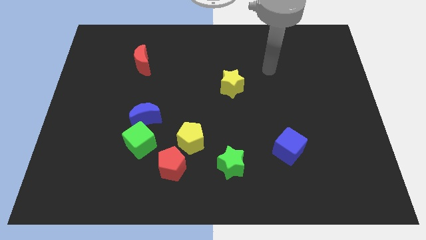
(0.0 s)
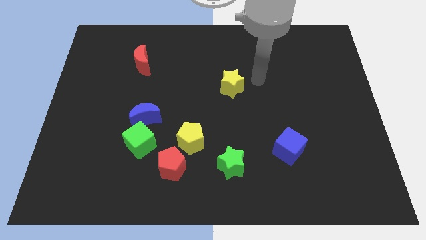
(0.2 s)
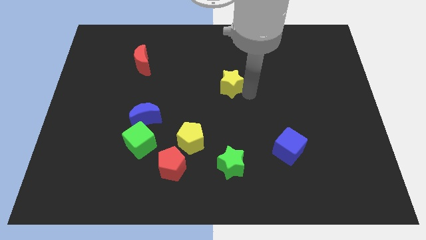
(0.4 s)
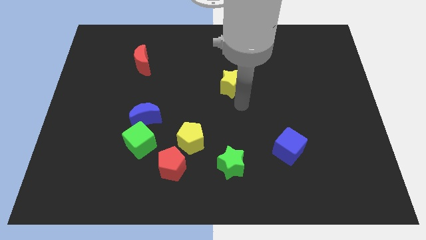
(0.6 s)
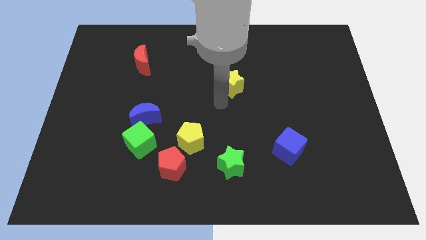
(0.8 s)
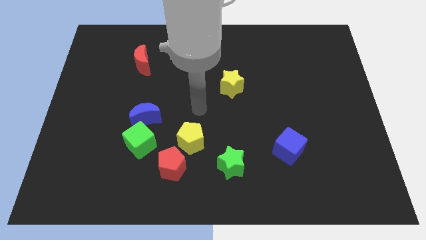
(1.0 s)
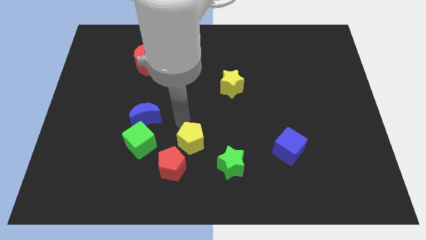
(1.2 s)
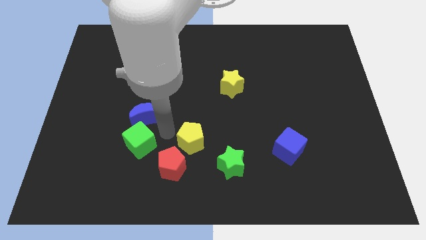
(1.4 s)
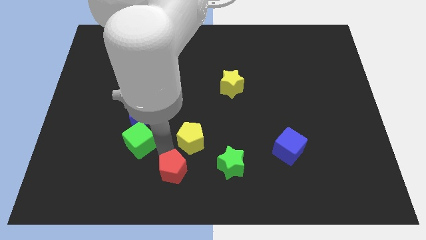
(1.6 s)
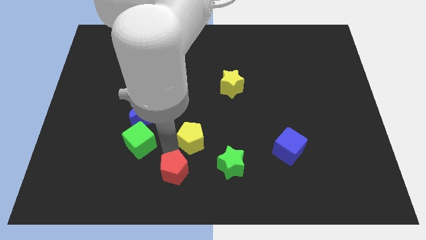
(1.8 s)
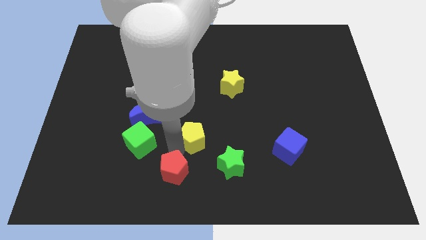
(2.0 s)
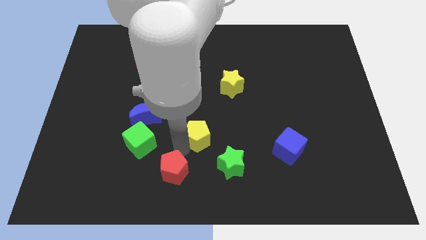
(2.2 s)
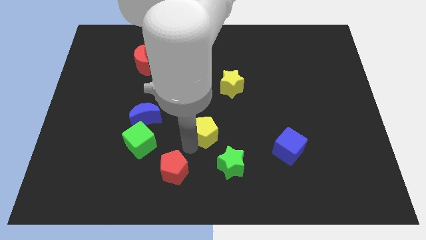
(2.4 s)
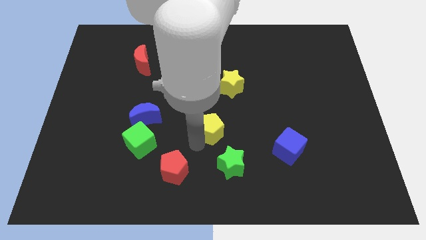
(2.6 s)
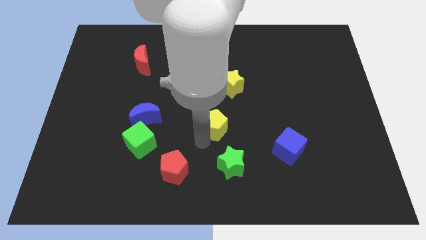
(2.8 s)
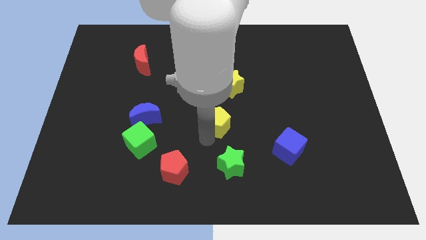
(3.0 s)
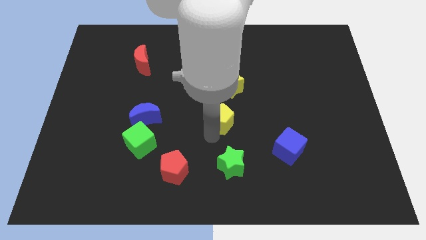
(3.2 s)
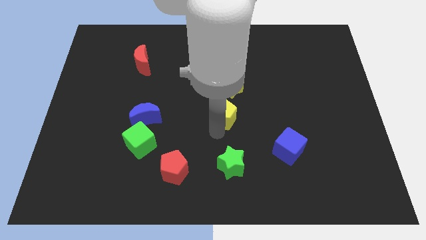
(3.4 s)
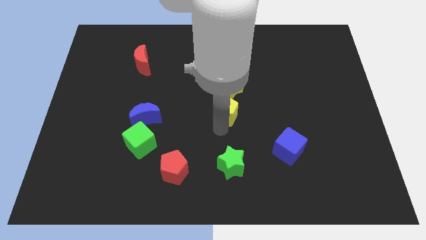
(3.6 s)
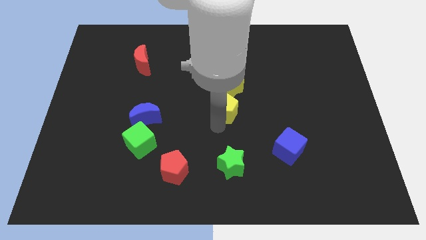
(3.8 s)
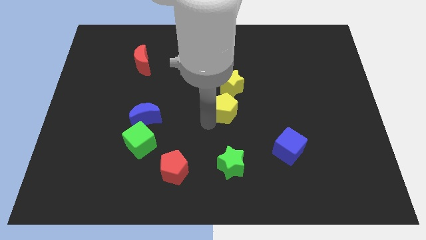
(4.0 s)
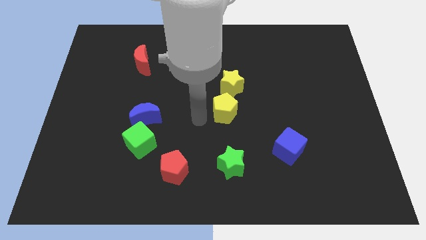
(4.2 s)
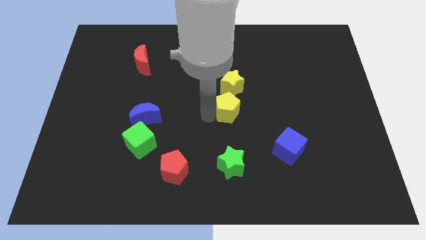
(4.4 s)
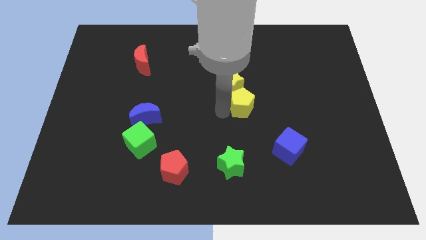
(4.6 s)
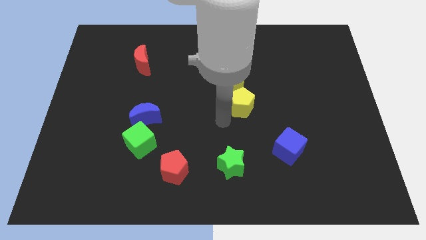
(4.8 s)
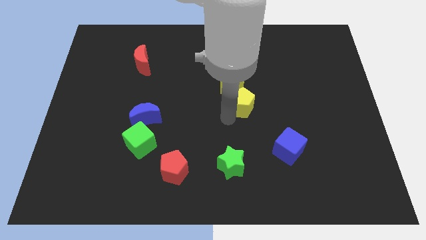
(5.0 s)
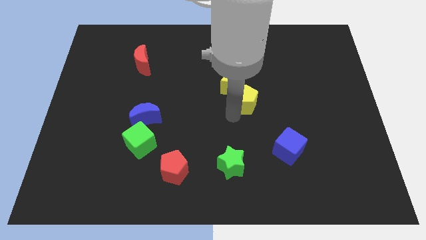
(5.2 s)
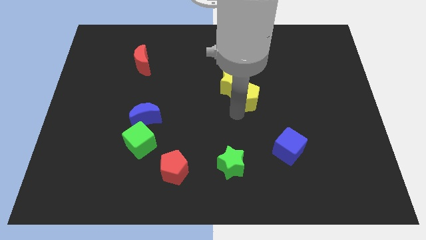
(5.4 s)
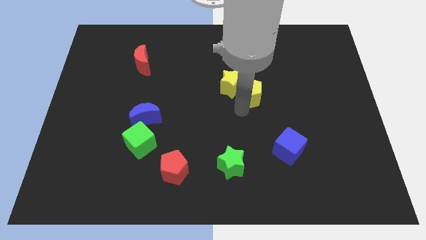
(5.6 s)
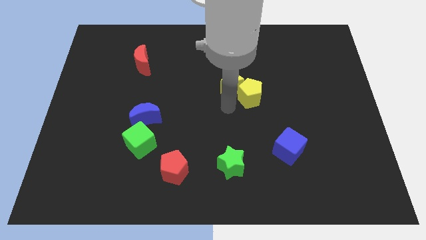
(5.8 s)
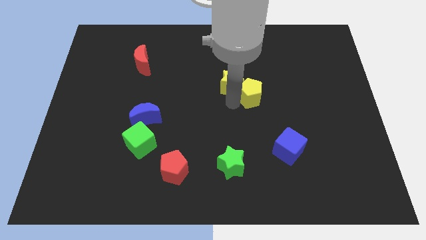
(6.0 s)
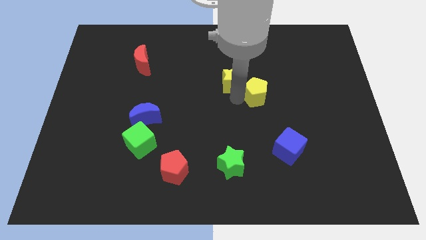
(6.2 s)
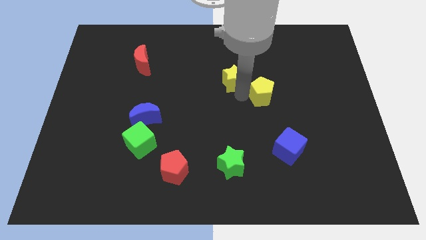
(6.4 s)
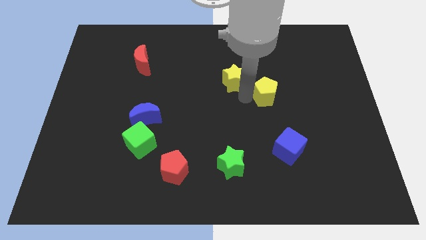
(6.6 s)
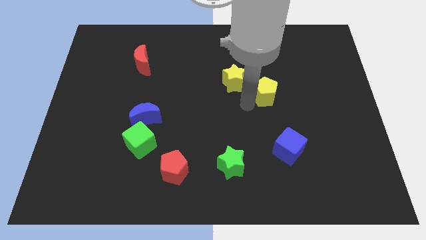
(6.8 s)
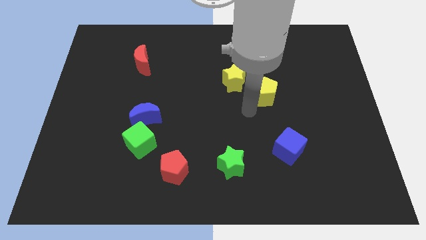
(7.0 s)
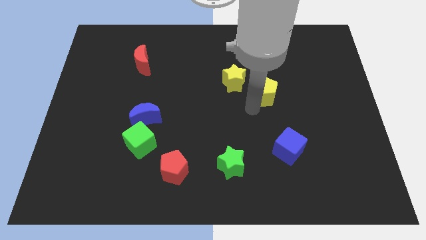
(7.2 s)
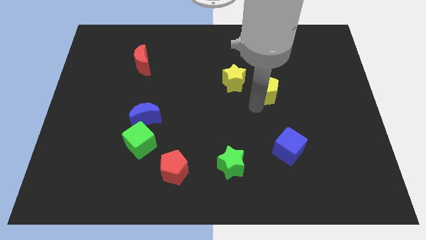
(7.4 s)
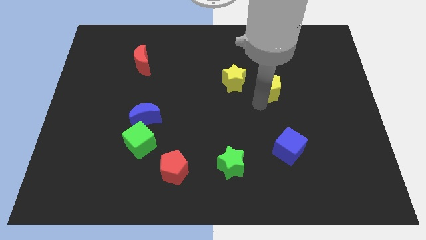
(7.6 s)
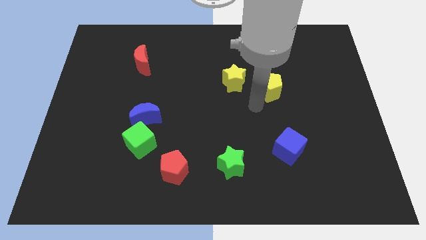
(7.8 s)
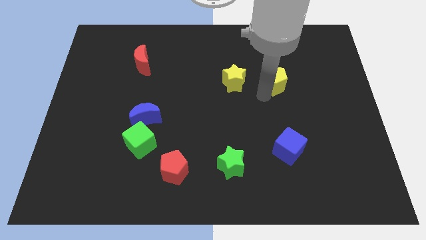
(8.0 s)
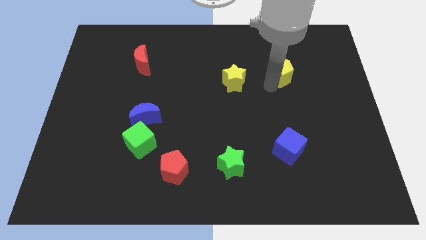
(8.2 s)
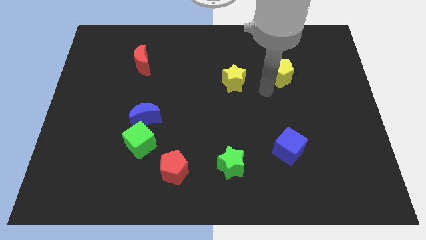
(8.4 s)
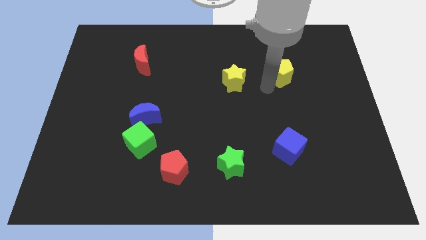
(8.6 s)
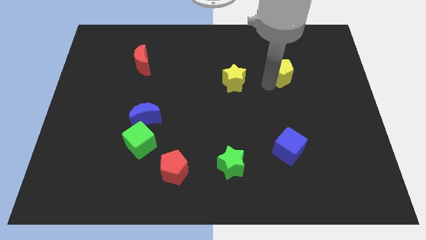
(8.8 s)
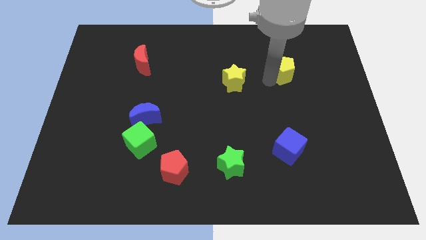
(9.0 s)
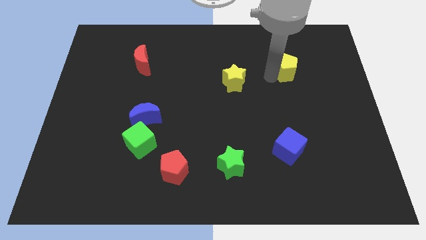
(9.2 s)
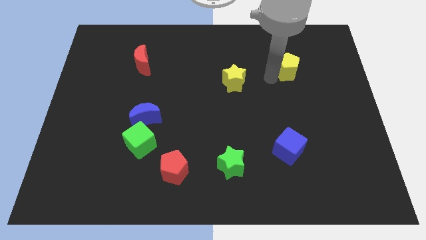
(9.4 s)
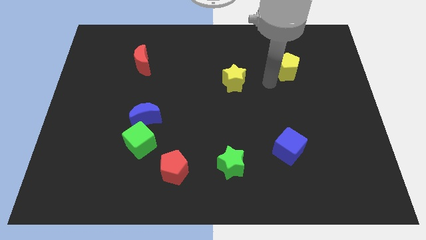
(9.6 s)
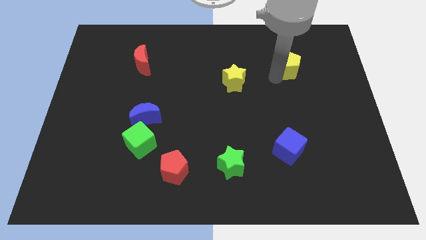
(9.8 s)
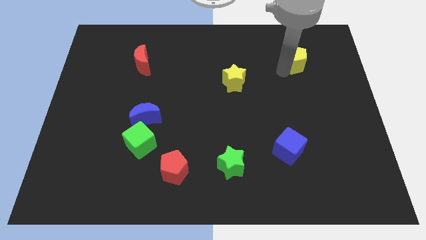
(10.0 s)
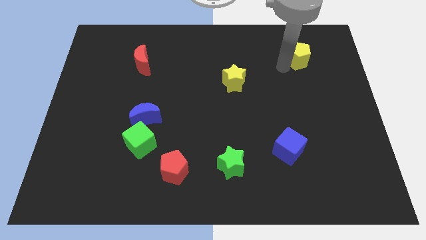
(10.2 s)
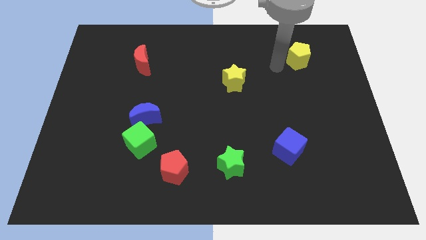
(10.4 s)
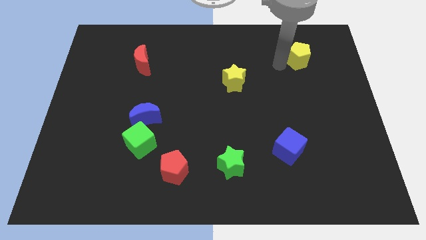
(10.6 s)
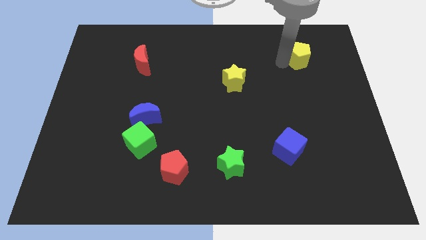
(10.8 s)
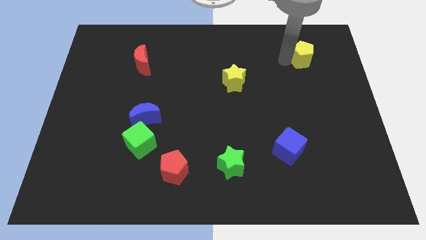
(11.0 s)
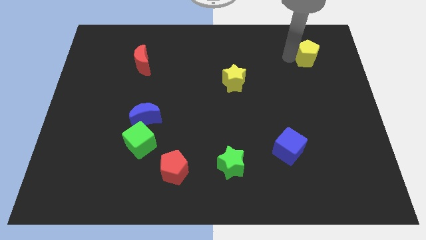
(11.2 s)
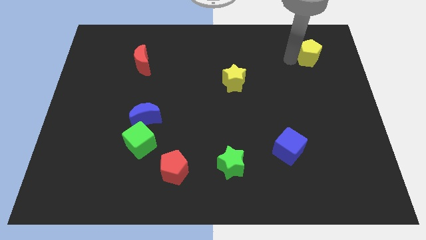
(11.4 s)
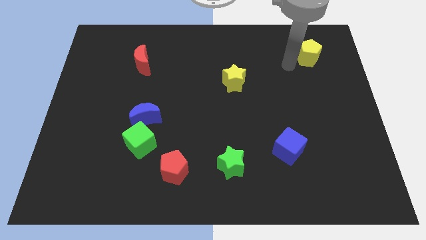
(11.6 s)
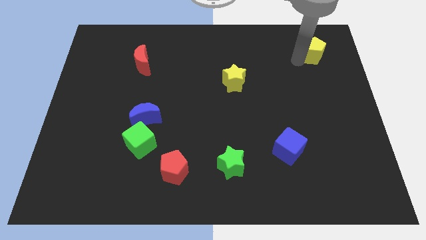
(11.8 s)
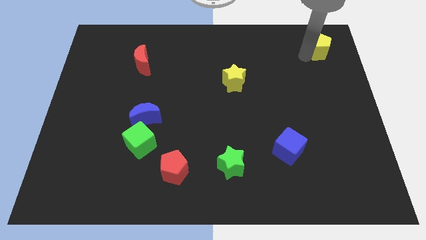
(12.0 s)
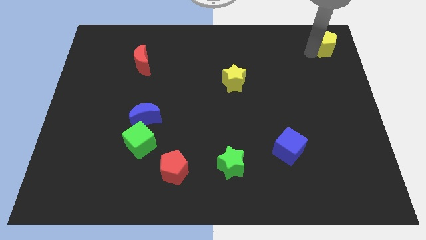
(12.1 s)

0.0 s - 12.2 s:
put the yellow pentagon to the top right corner

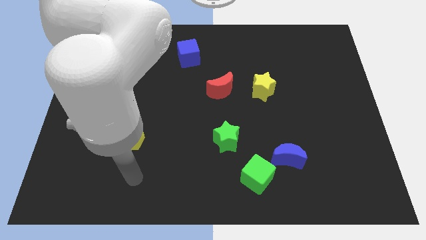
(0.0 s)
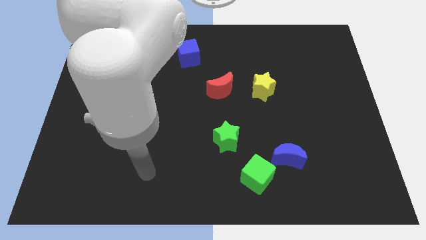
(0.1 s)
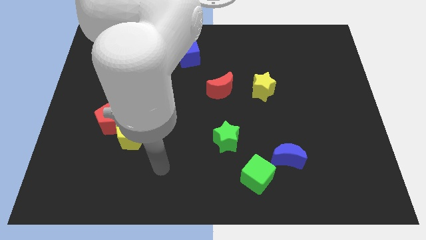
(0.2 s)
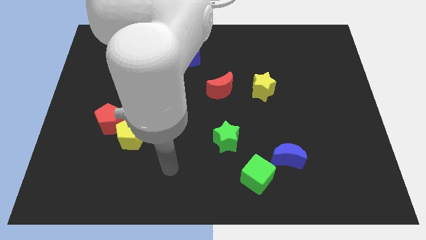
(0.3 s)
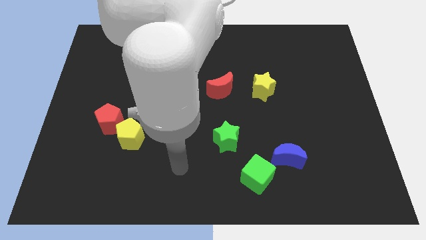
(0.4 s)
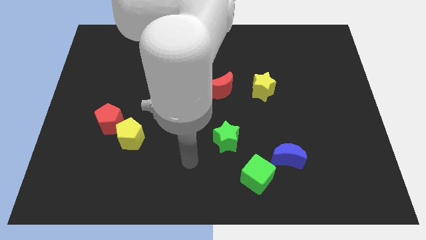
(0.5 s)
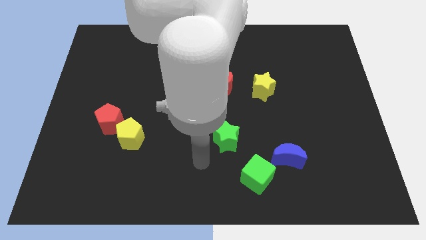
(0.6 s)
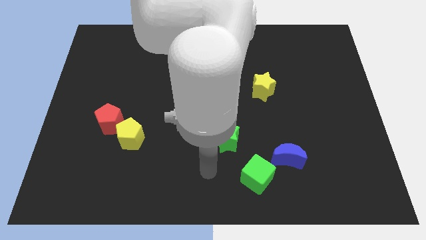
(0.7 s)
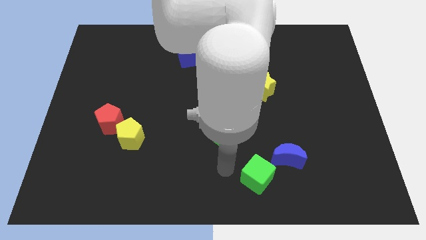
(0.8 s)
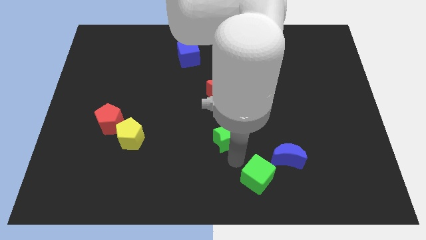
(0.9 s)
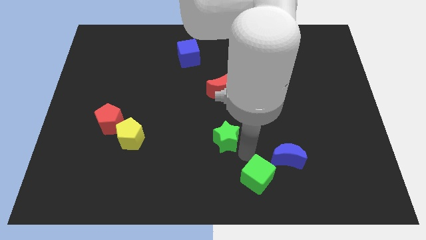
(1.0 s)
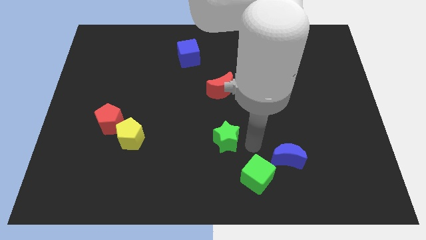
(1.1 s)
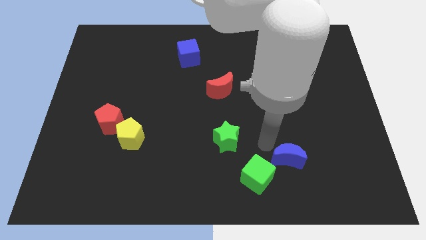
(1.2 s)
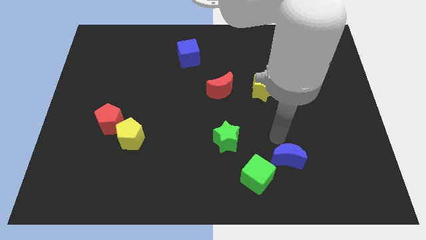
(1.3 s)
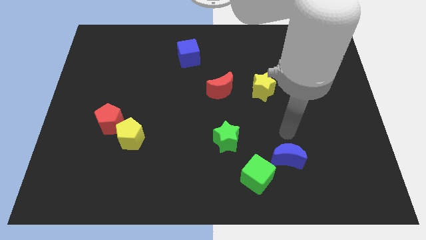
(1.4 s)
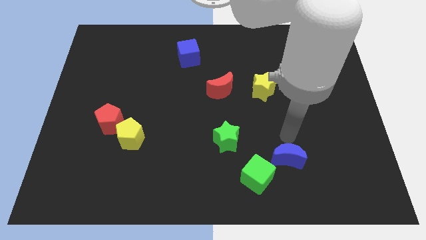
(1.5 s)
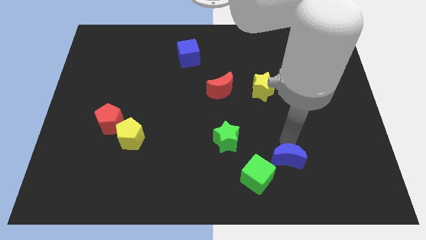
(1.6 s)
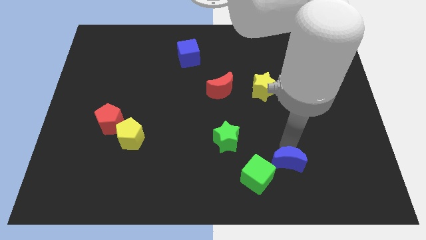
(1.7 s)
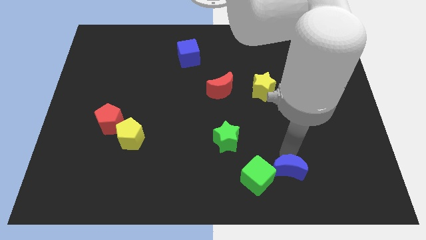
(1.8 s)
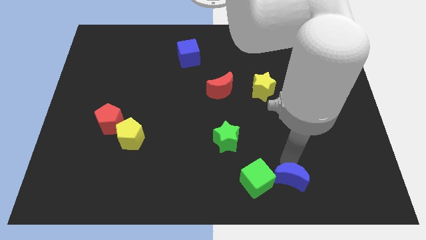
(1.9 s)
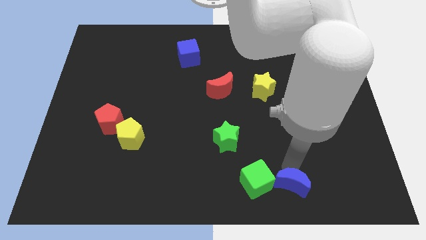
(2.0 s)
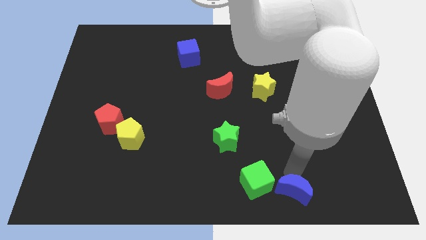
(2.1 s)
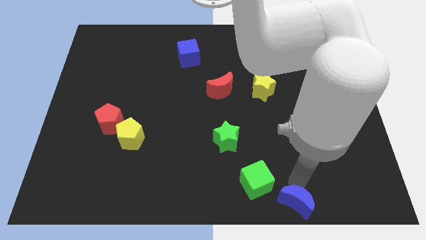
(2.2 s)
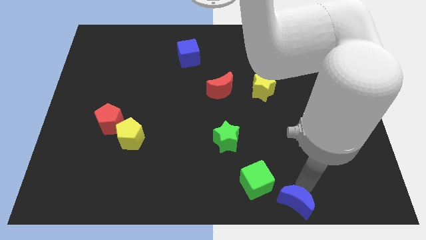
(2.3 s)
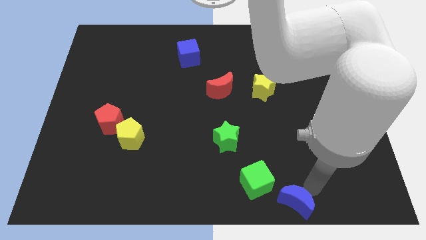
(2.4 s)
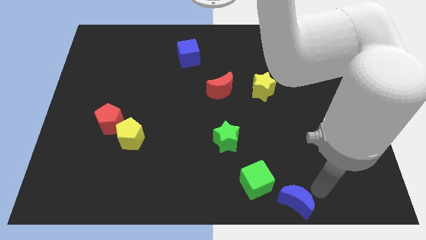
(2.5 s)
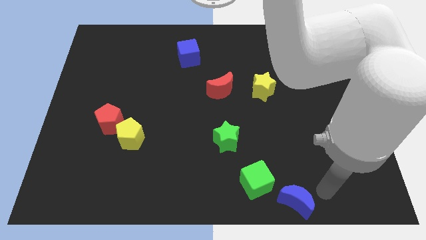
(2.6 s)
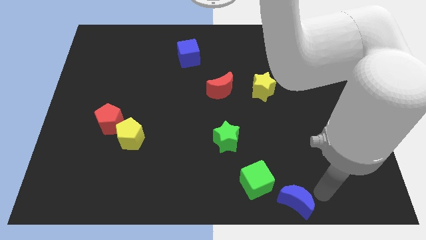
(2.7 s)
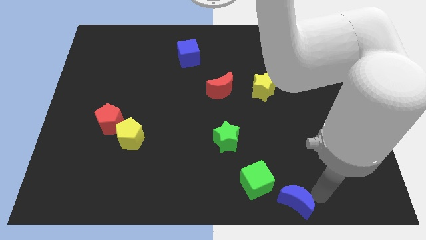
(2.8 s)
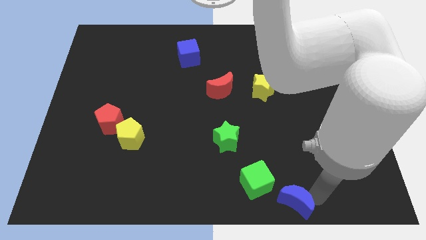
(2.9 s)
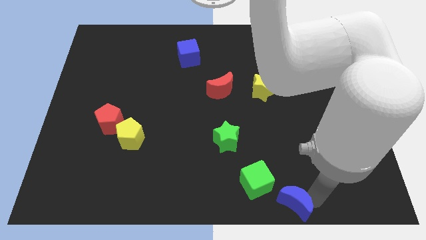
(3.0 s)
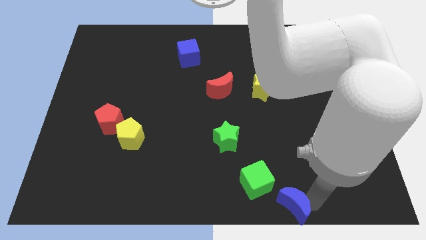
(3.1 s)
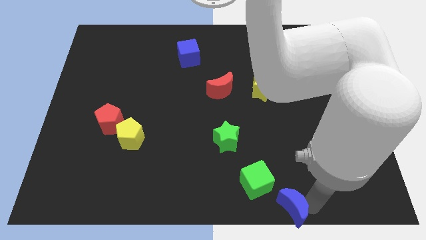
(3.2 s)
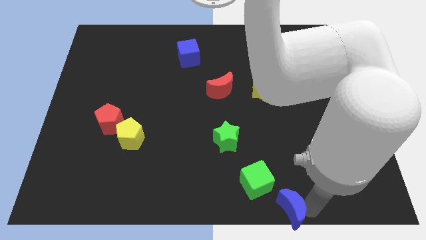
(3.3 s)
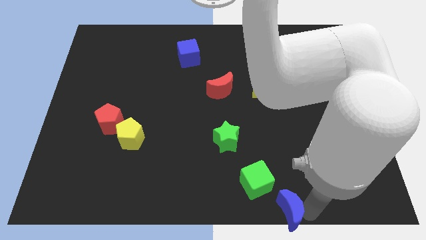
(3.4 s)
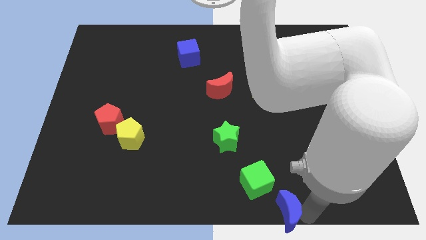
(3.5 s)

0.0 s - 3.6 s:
put the blue moon to the bottom
